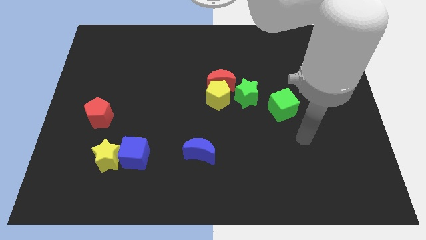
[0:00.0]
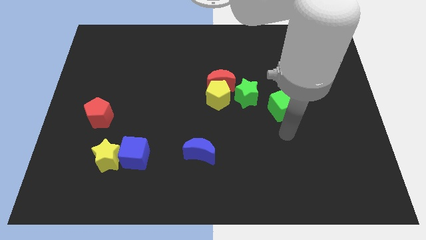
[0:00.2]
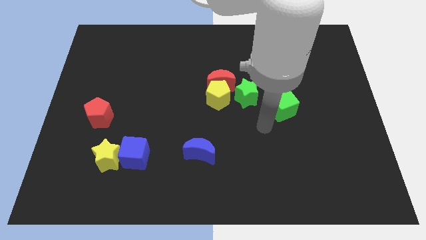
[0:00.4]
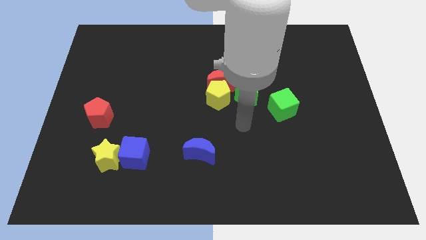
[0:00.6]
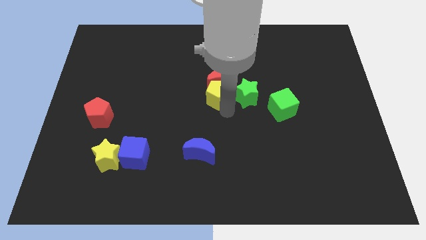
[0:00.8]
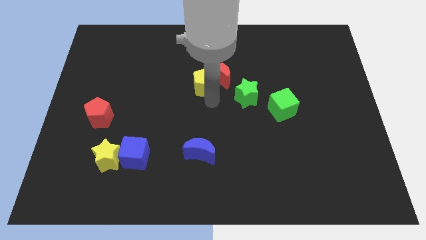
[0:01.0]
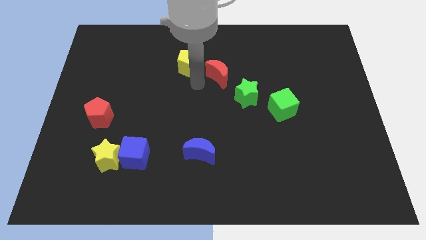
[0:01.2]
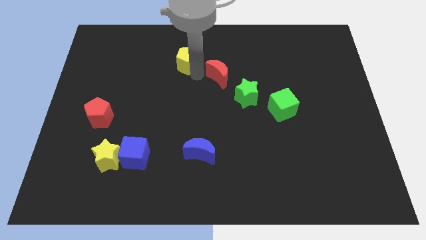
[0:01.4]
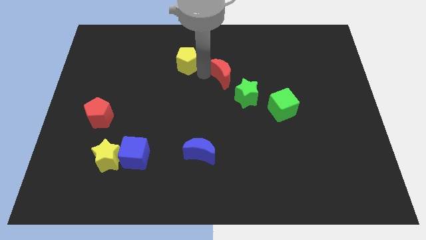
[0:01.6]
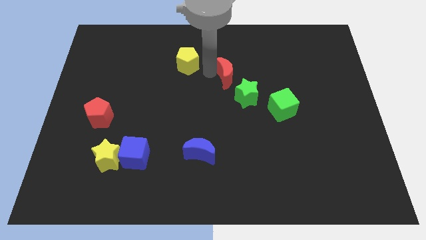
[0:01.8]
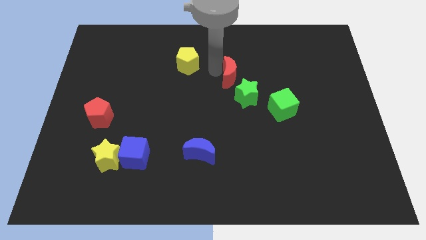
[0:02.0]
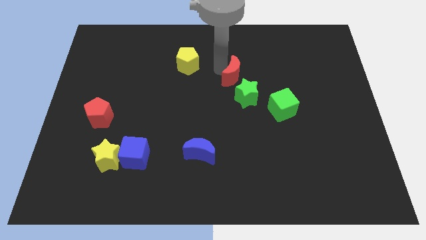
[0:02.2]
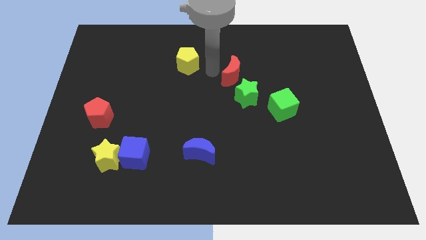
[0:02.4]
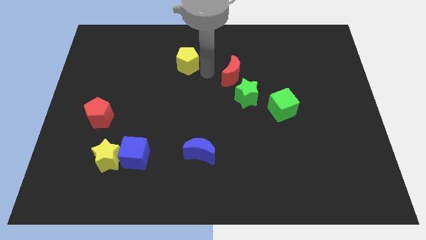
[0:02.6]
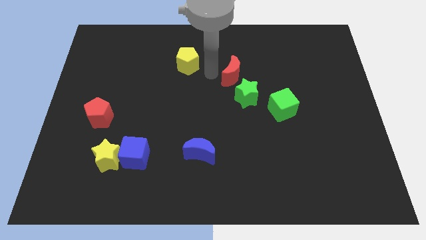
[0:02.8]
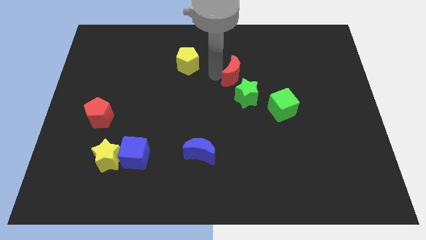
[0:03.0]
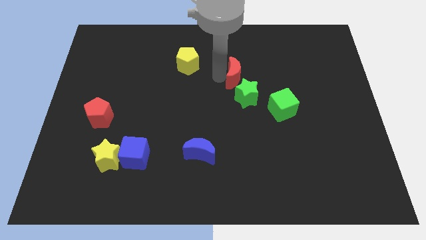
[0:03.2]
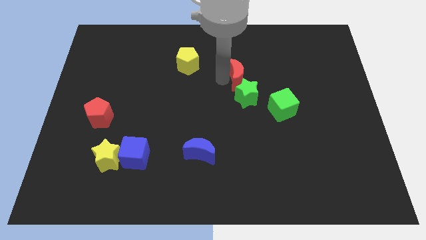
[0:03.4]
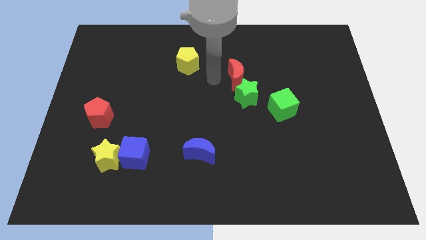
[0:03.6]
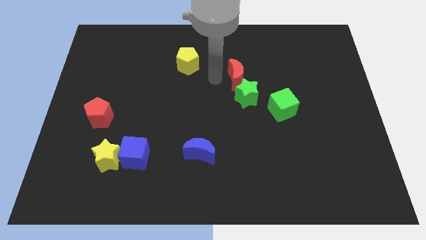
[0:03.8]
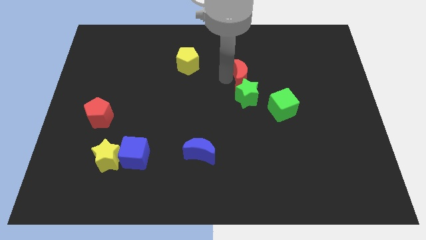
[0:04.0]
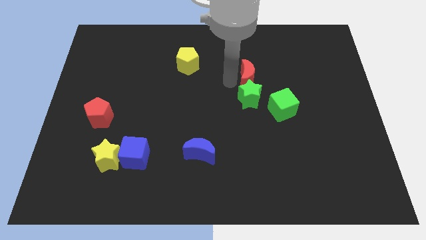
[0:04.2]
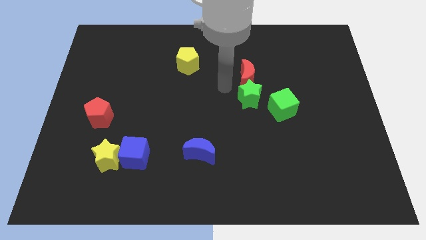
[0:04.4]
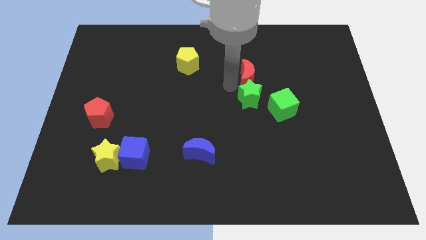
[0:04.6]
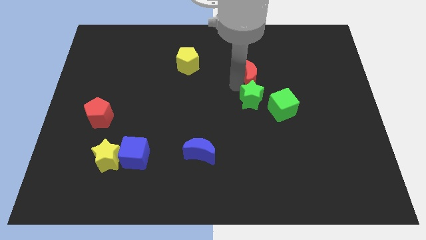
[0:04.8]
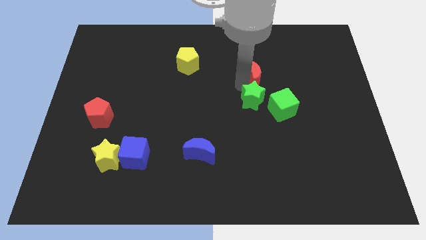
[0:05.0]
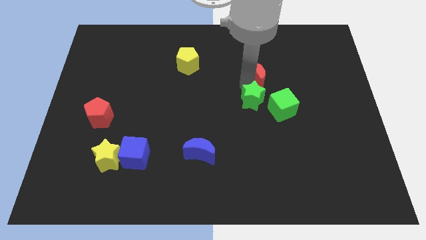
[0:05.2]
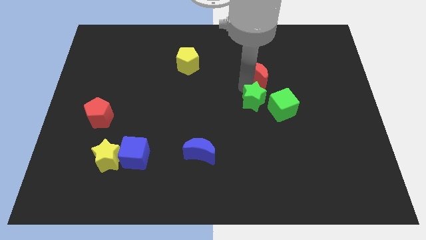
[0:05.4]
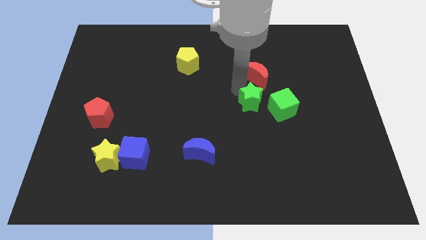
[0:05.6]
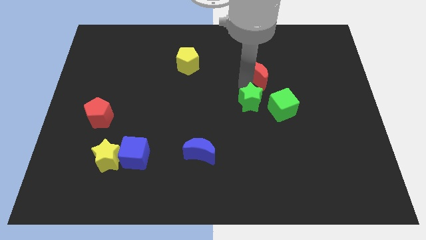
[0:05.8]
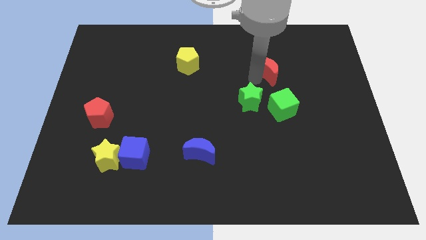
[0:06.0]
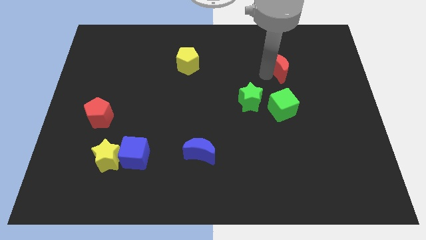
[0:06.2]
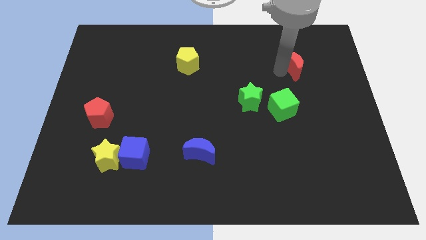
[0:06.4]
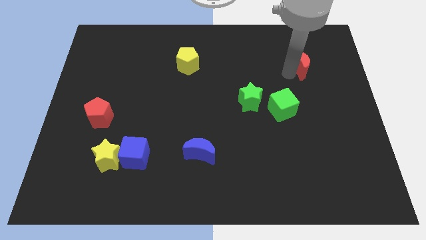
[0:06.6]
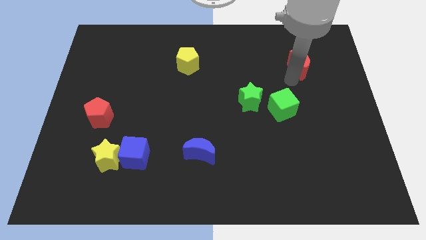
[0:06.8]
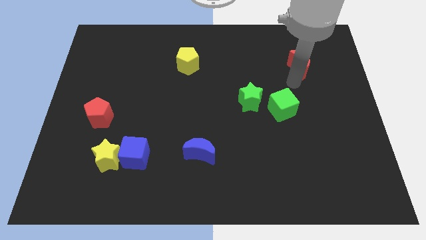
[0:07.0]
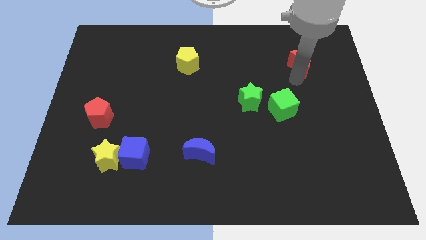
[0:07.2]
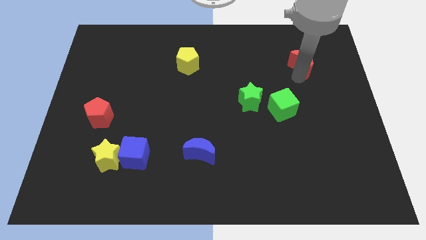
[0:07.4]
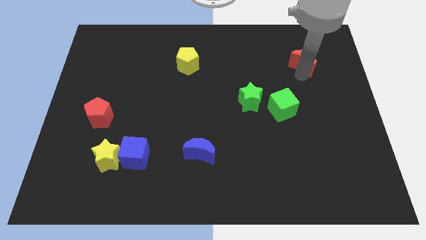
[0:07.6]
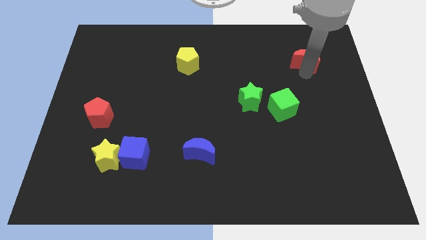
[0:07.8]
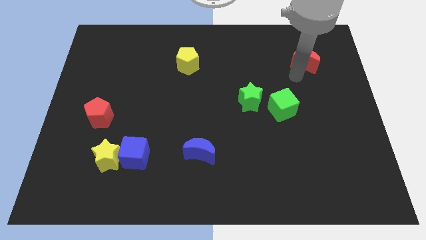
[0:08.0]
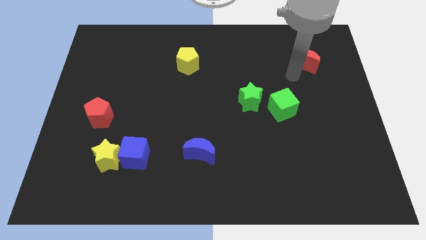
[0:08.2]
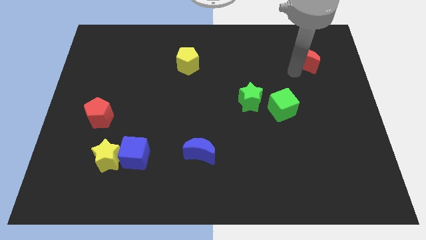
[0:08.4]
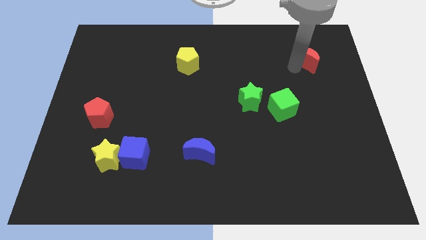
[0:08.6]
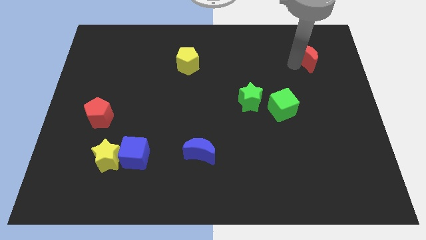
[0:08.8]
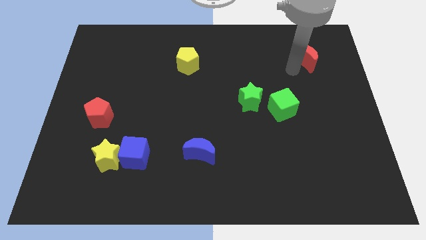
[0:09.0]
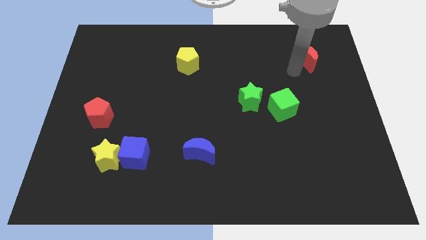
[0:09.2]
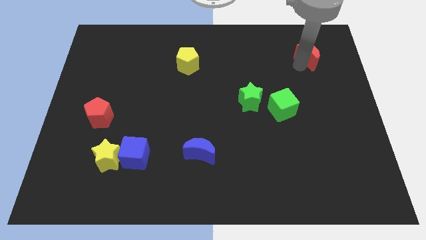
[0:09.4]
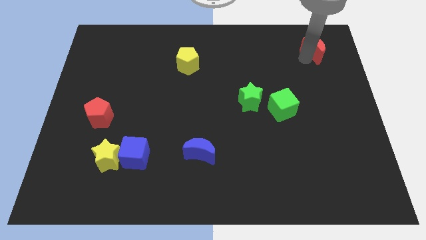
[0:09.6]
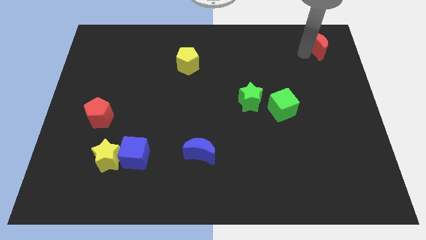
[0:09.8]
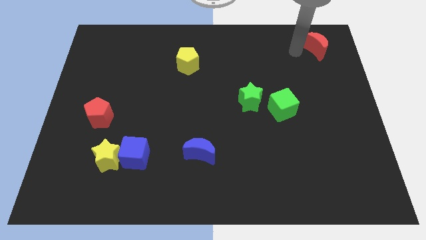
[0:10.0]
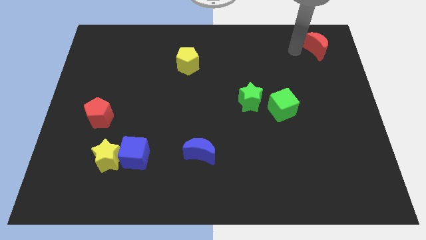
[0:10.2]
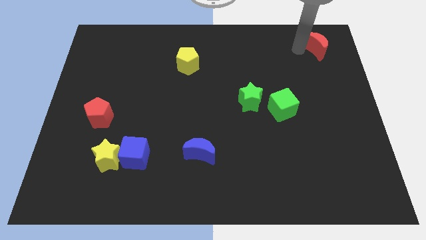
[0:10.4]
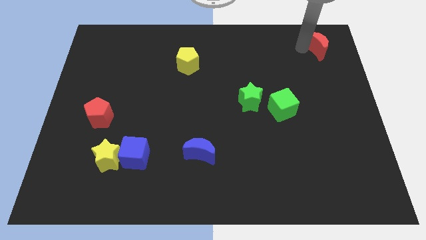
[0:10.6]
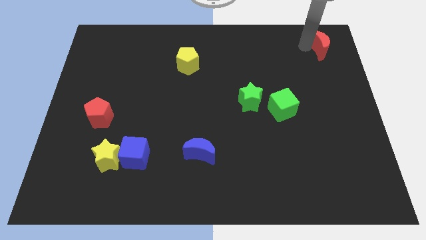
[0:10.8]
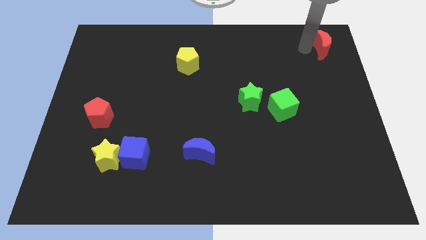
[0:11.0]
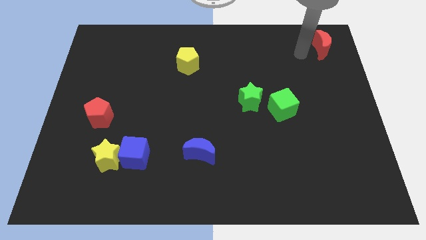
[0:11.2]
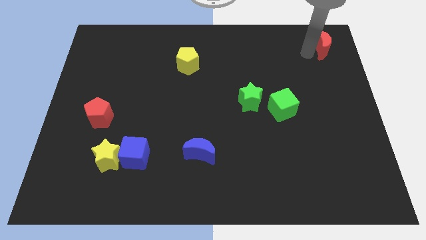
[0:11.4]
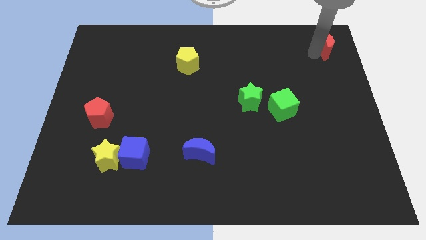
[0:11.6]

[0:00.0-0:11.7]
slide the red moon to the top right of the board
